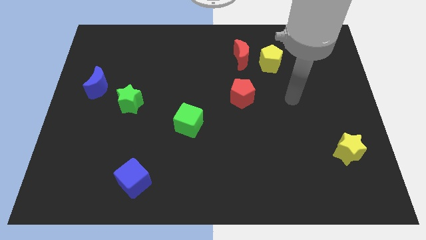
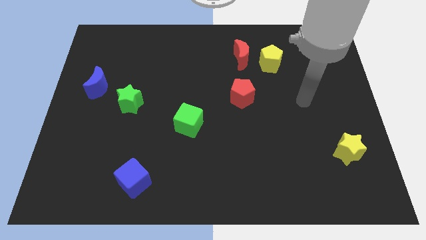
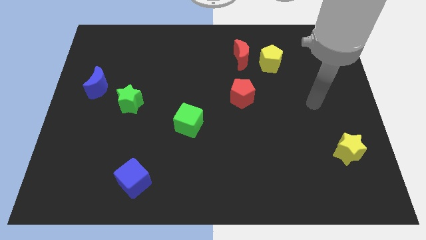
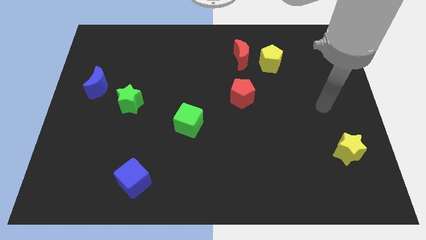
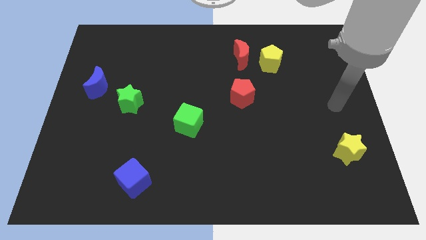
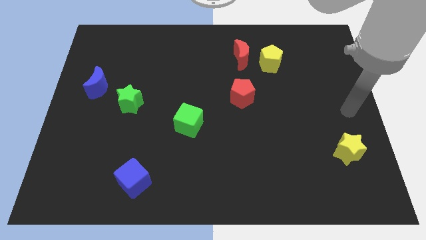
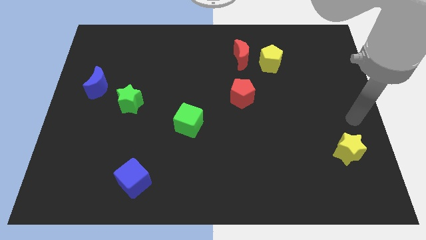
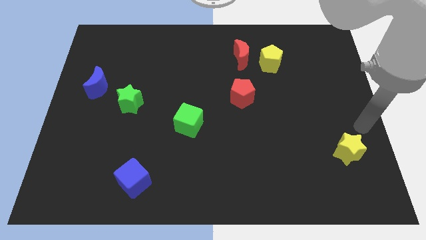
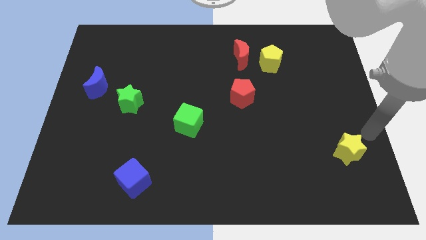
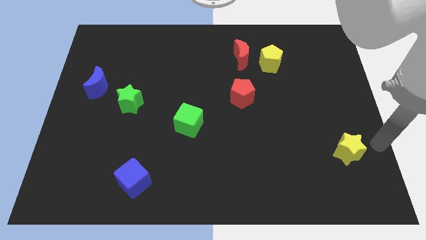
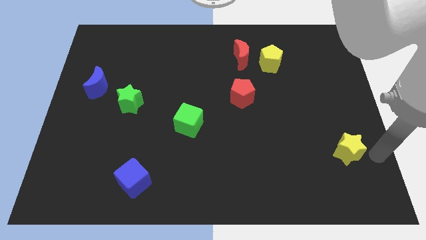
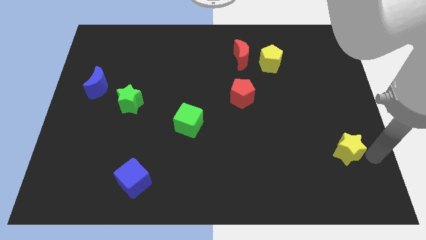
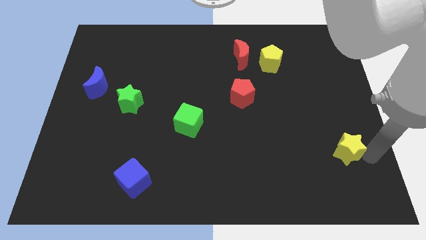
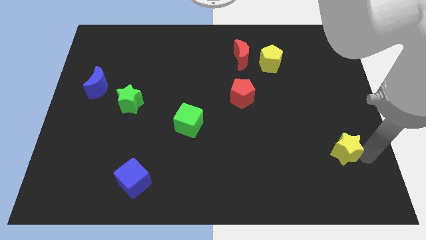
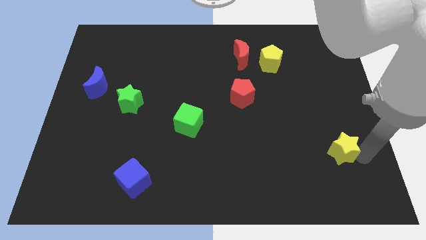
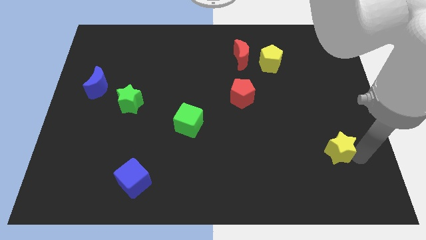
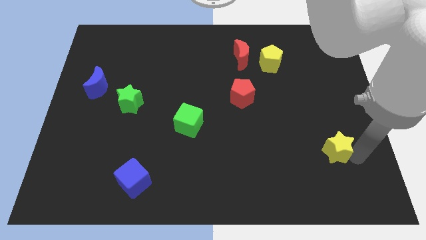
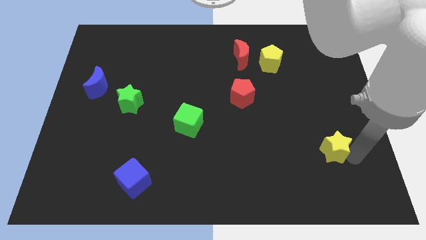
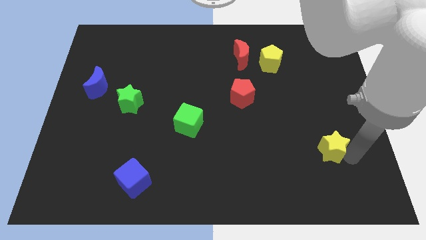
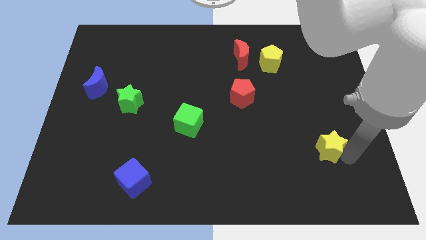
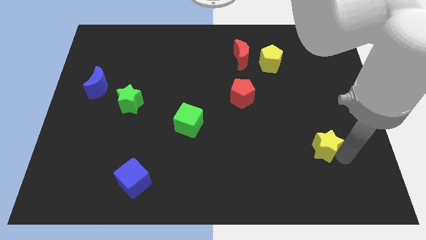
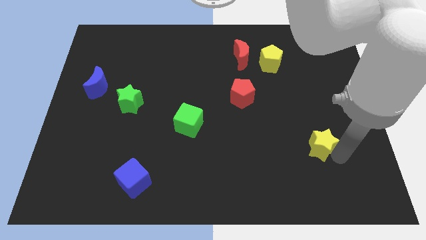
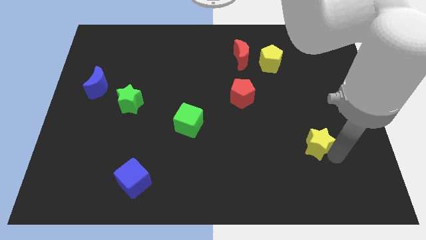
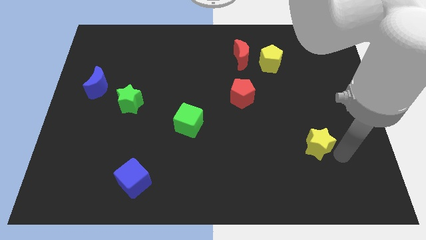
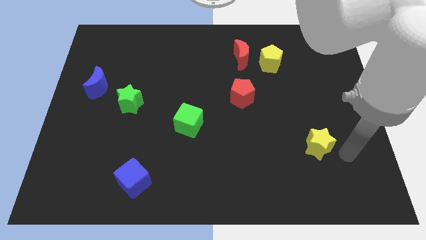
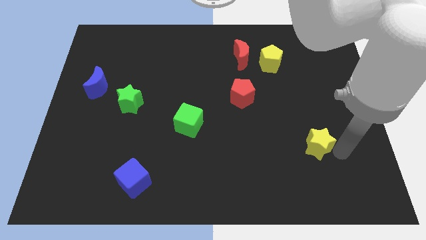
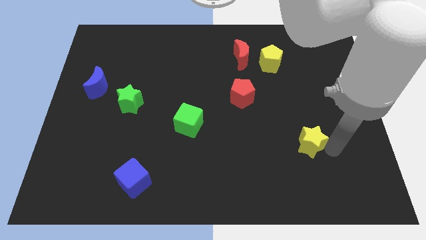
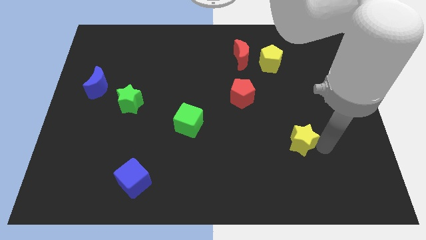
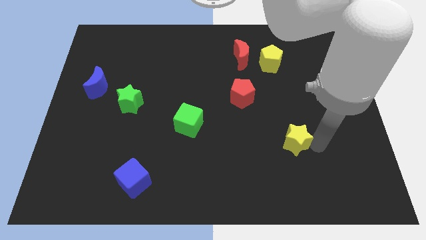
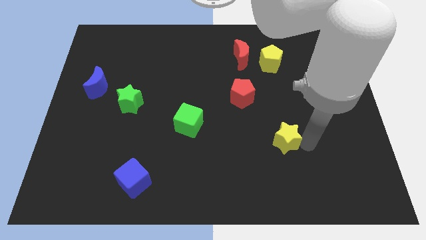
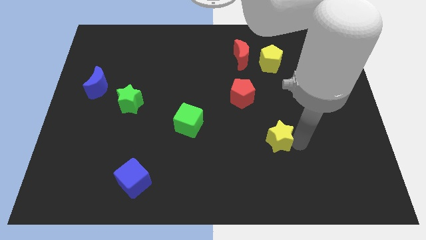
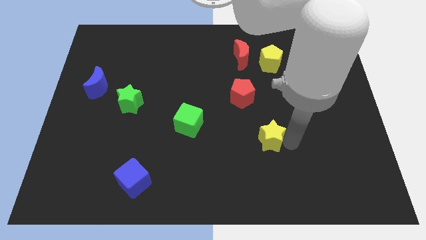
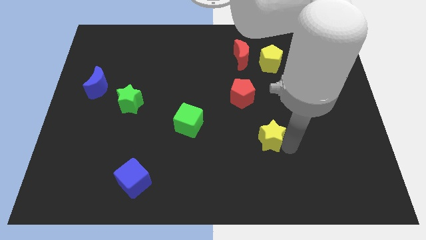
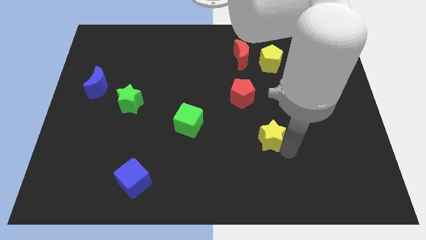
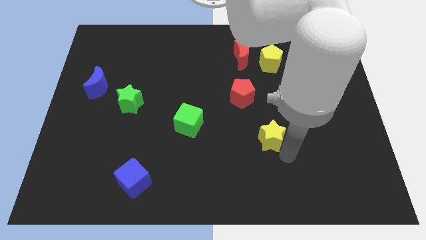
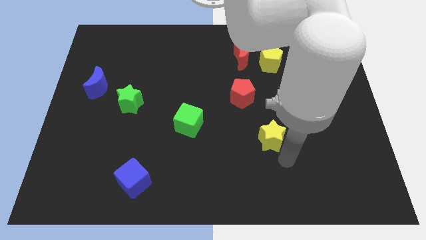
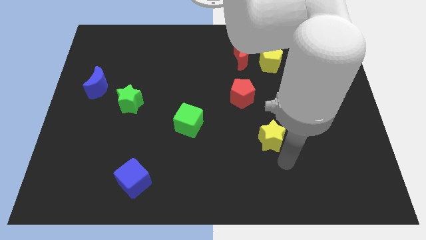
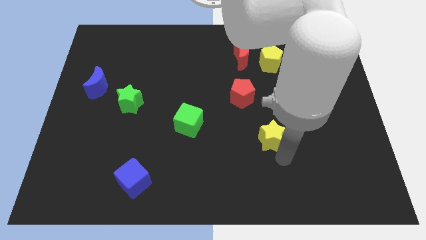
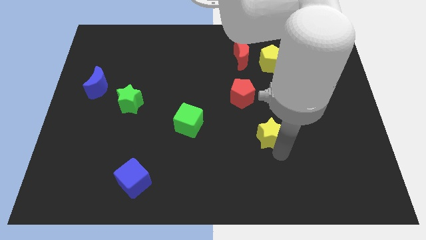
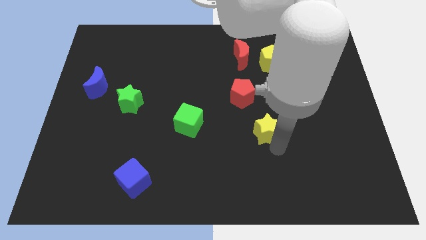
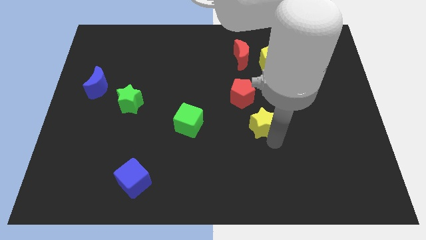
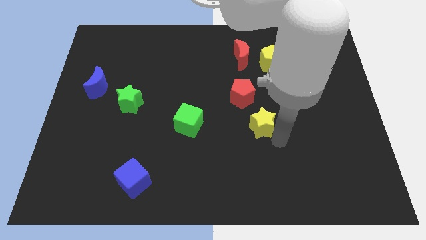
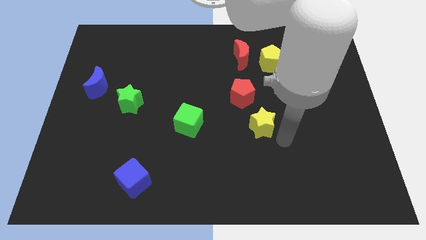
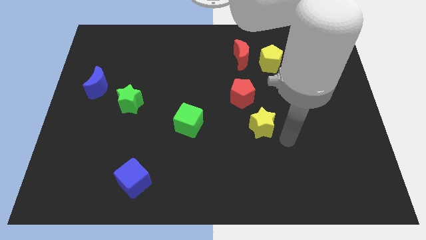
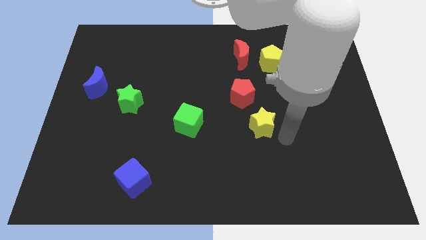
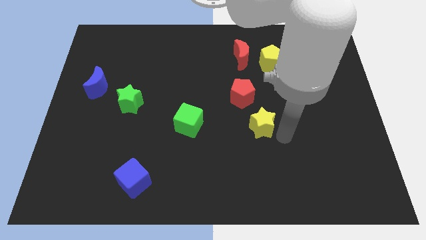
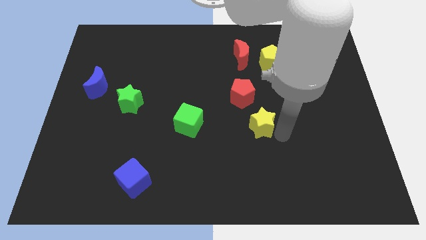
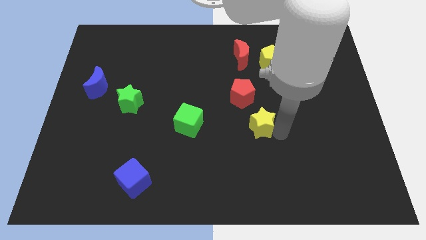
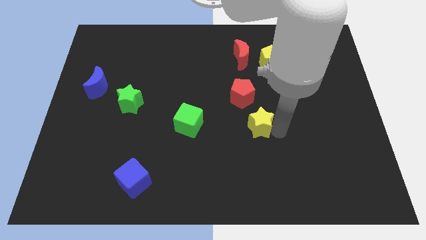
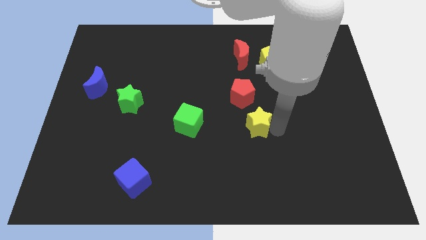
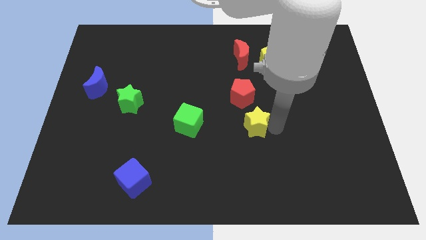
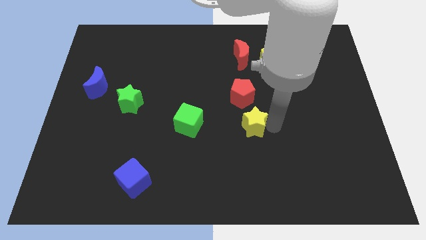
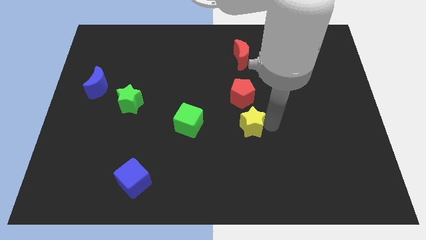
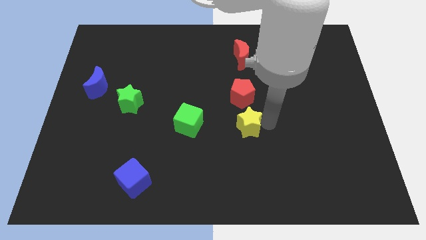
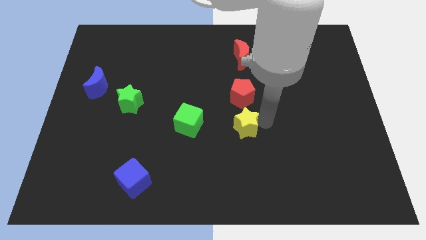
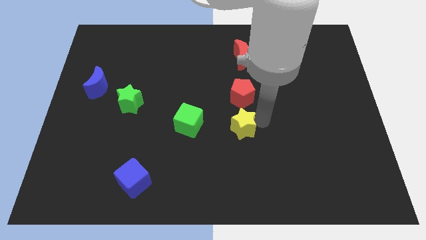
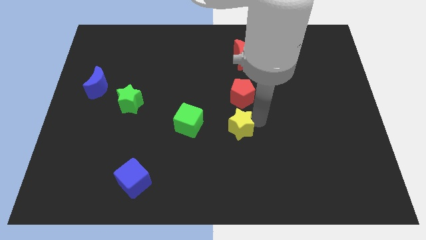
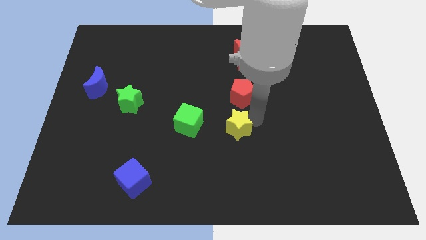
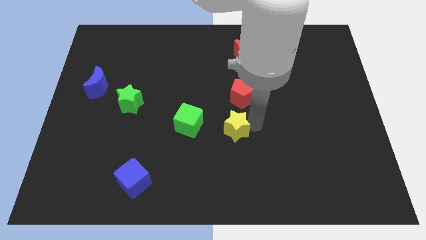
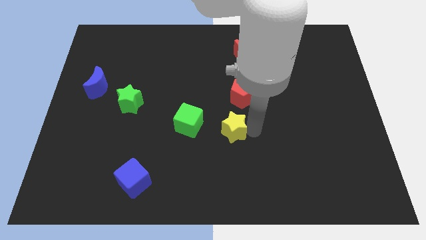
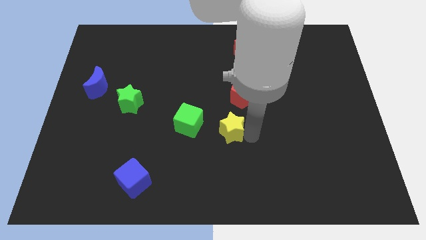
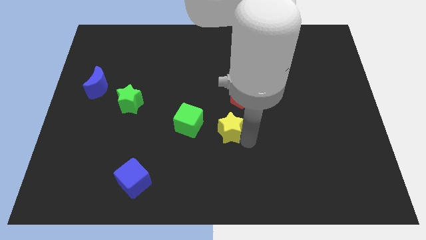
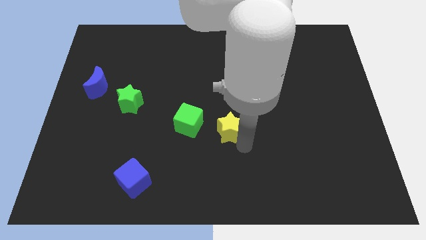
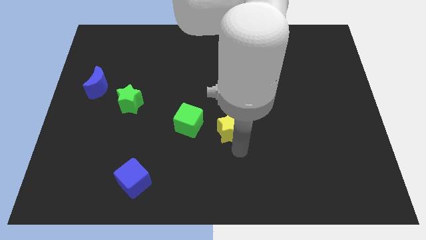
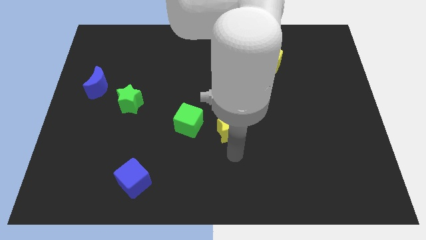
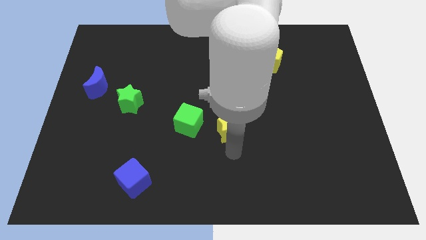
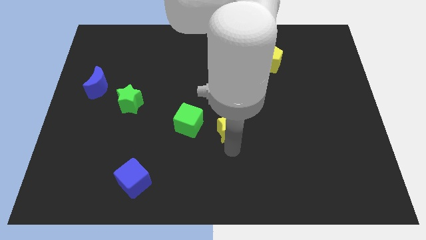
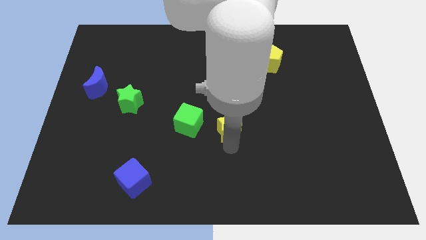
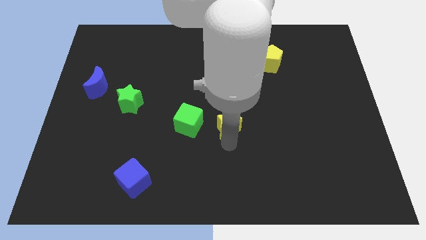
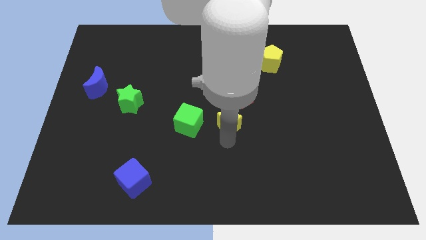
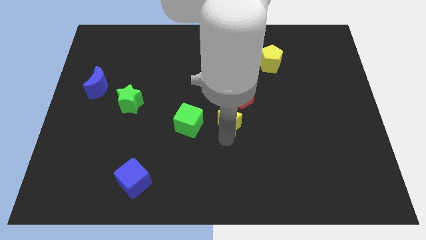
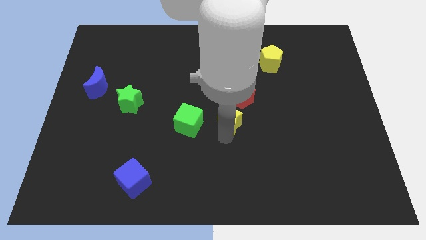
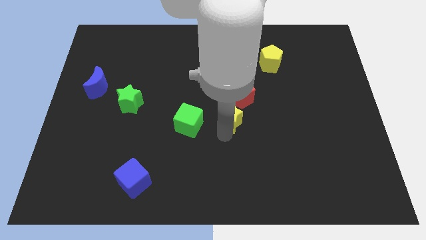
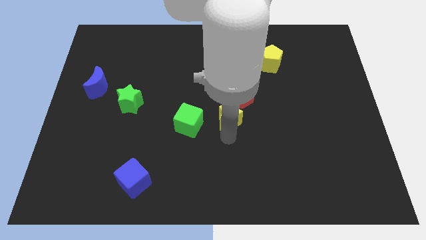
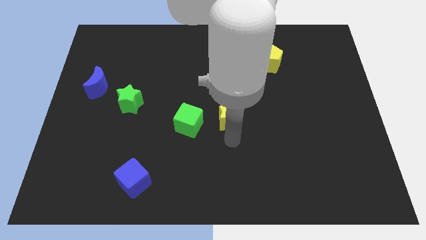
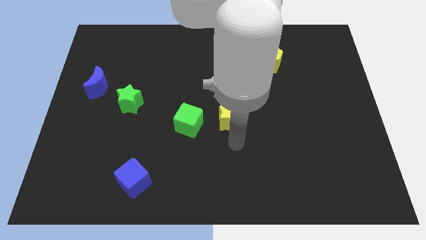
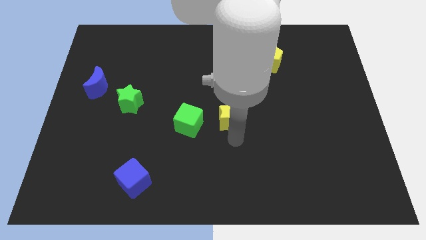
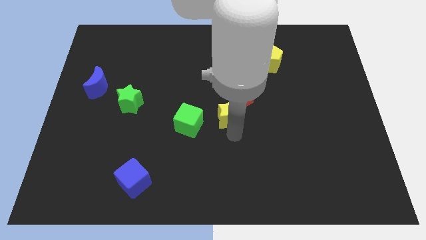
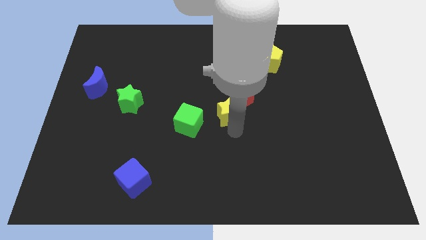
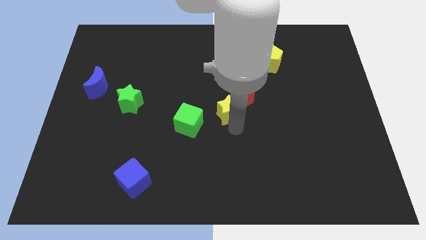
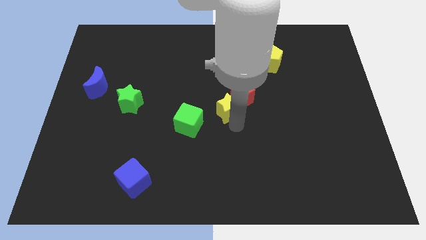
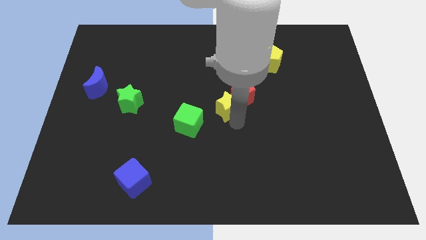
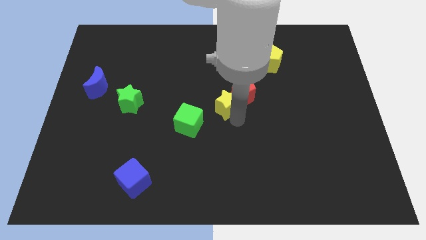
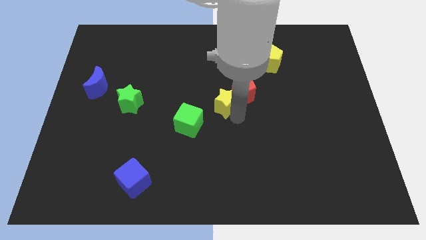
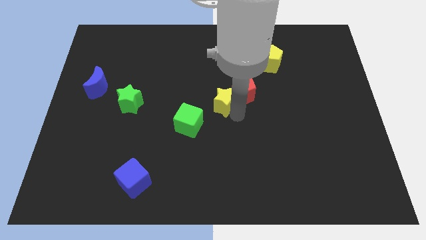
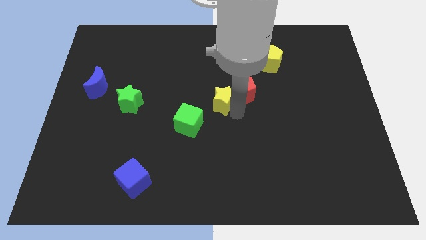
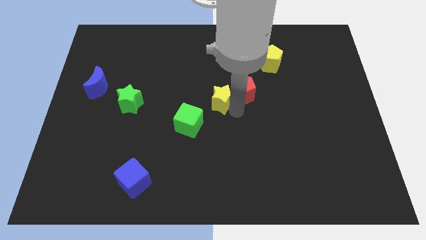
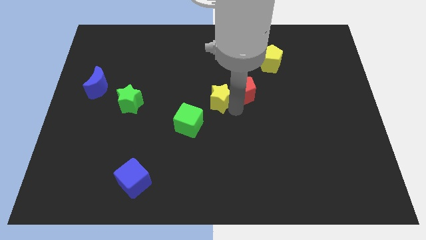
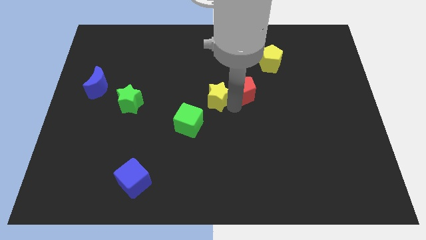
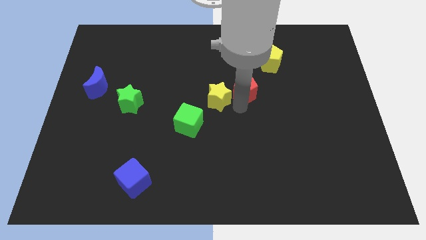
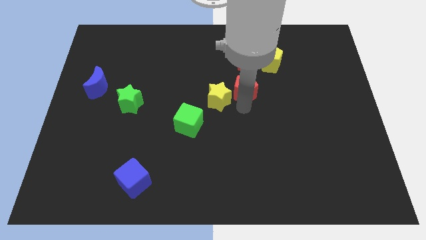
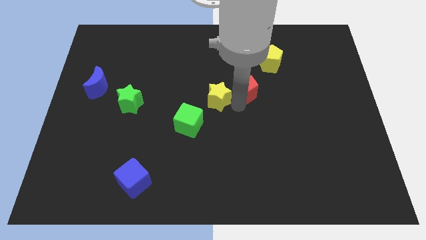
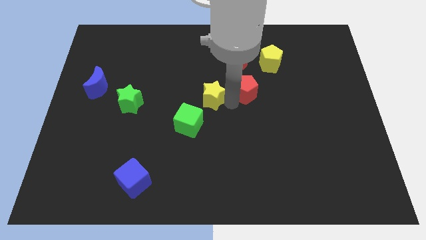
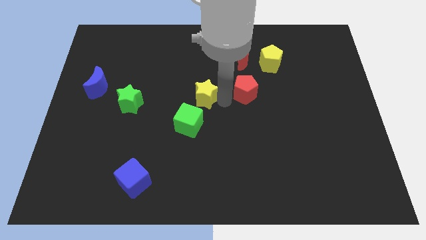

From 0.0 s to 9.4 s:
slide the yellow star to the top of the green cube
